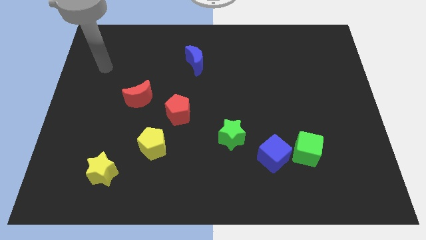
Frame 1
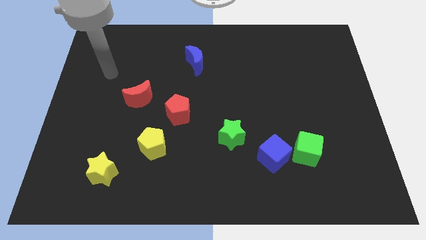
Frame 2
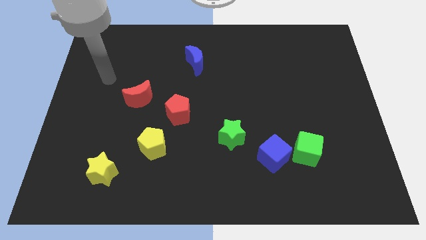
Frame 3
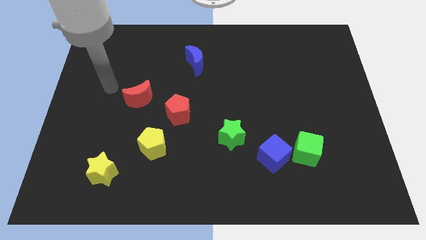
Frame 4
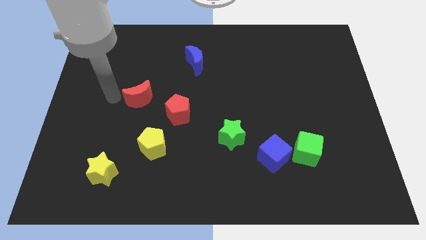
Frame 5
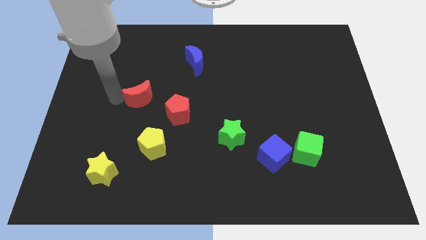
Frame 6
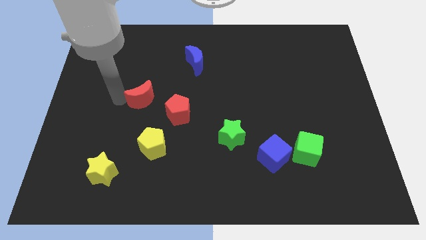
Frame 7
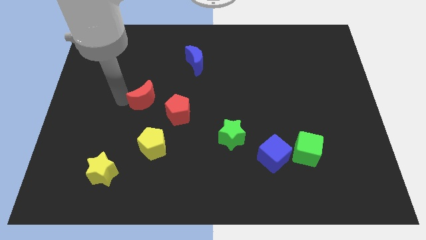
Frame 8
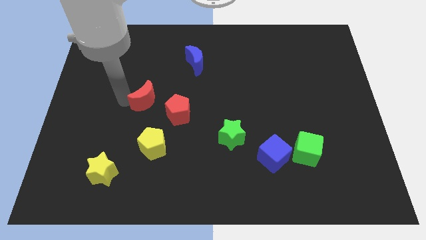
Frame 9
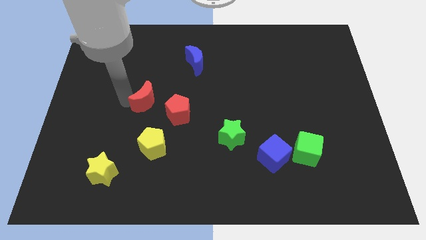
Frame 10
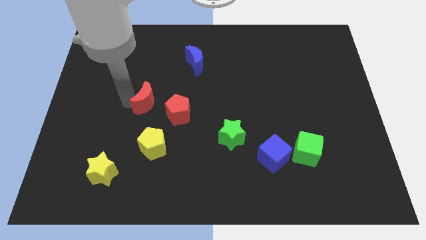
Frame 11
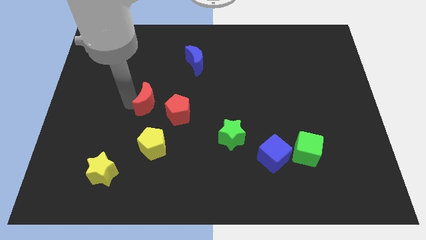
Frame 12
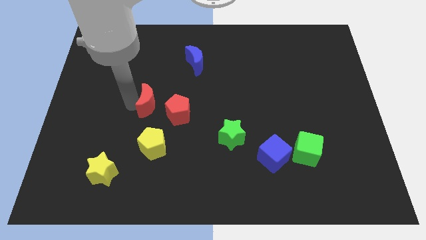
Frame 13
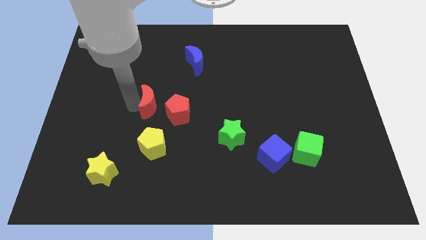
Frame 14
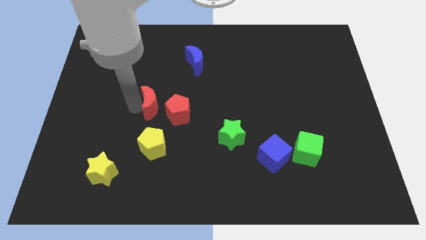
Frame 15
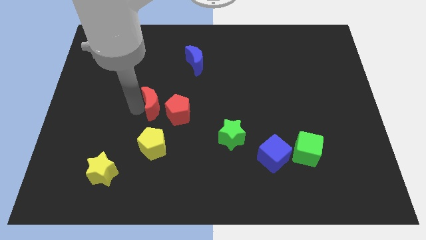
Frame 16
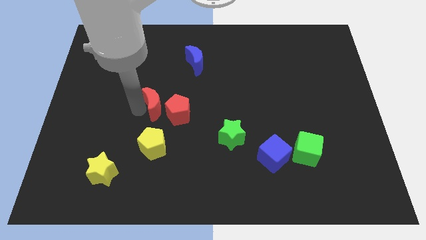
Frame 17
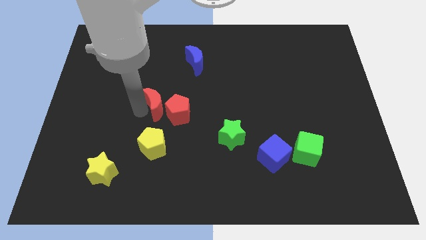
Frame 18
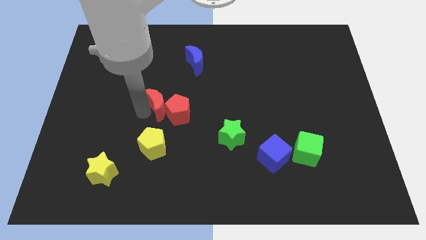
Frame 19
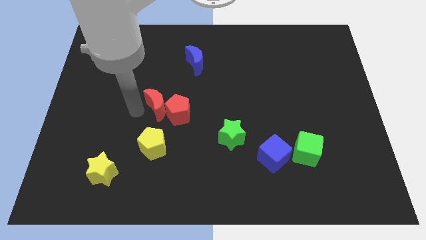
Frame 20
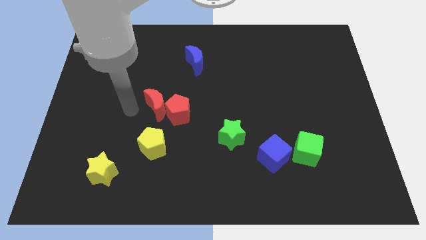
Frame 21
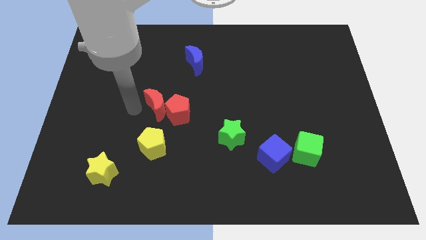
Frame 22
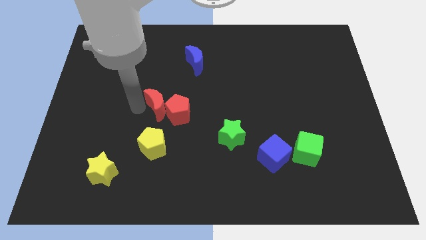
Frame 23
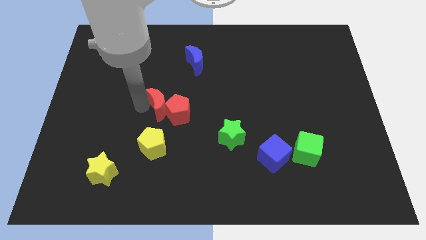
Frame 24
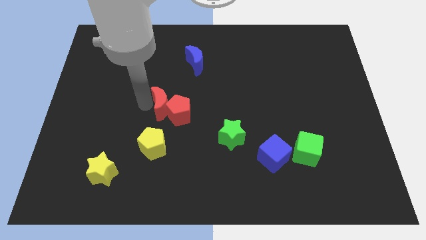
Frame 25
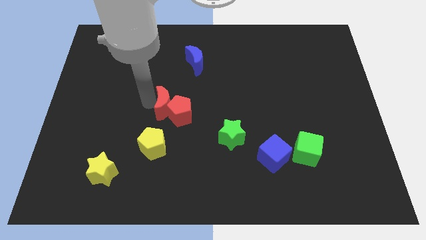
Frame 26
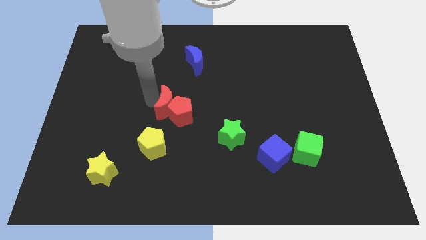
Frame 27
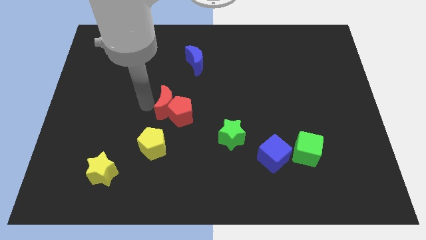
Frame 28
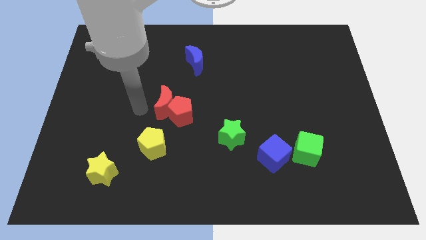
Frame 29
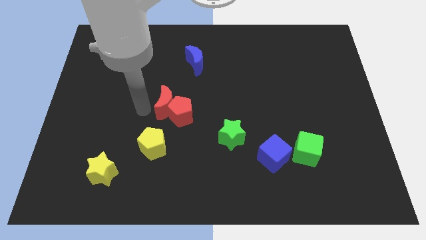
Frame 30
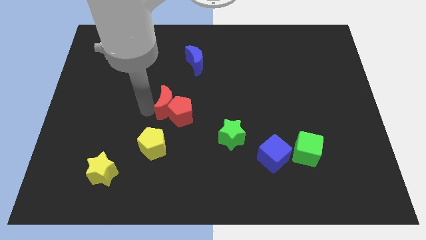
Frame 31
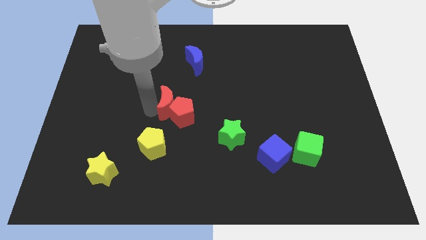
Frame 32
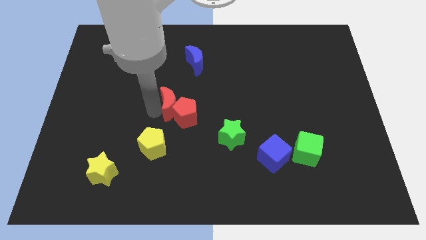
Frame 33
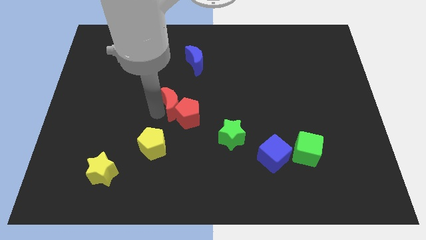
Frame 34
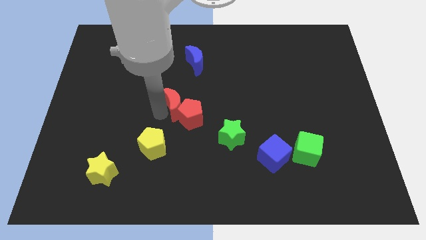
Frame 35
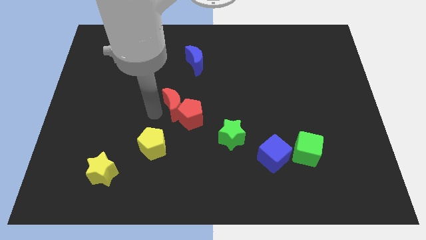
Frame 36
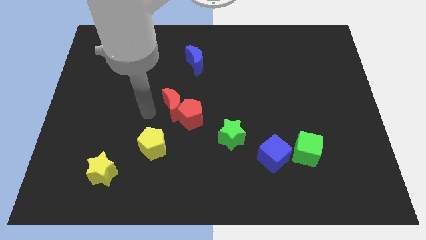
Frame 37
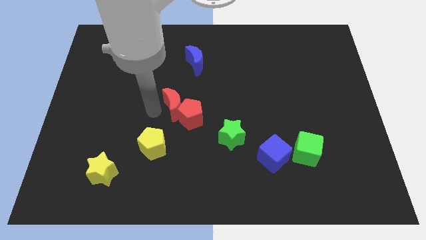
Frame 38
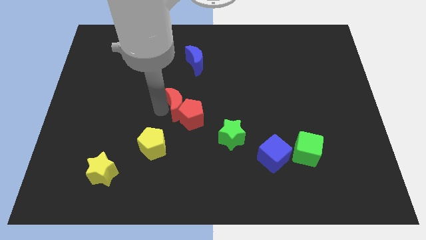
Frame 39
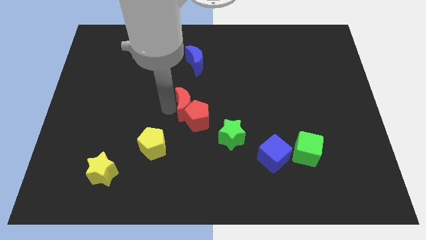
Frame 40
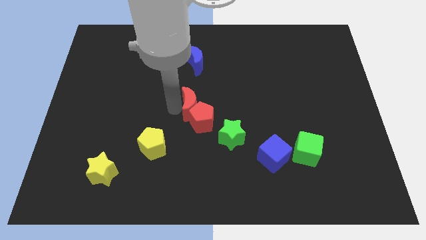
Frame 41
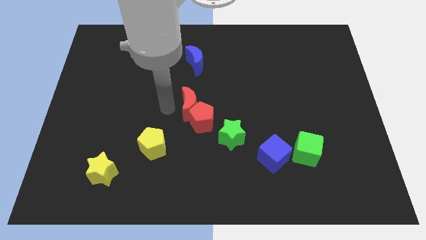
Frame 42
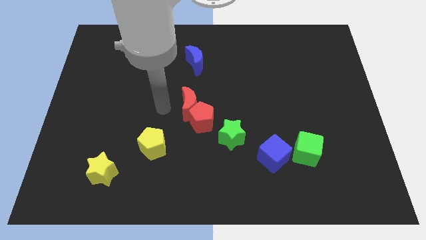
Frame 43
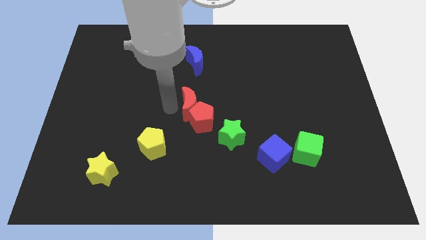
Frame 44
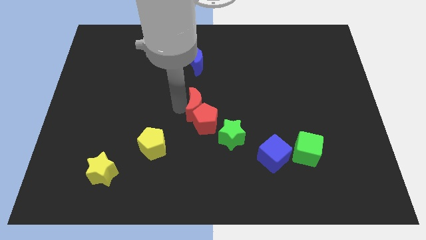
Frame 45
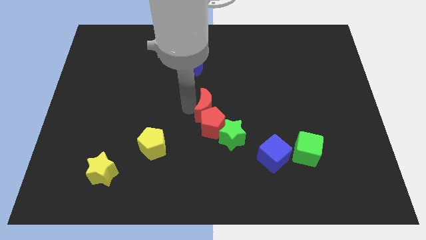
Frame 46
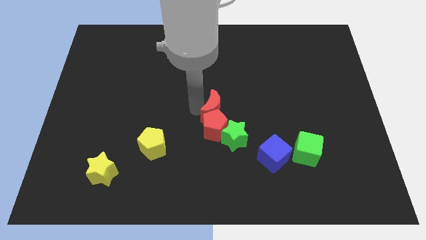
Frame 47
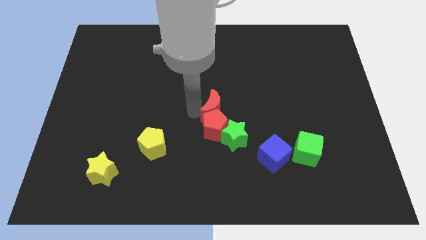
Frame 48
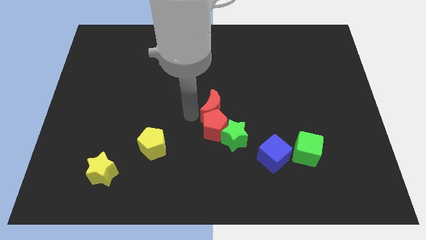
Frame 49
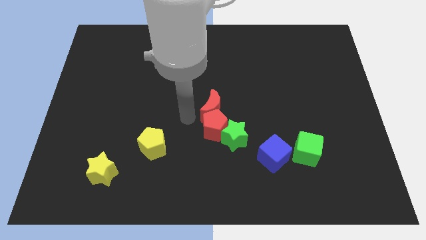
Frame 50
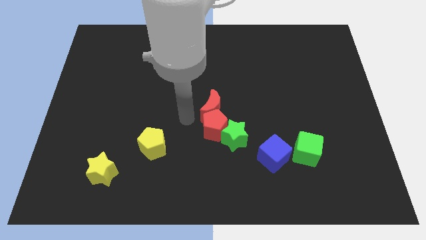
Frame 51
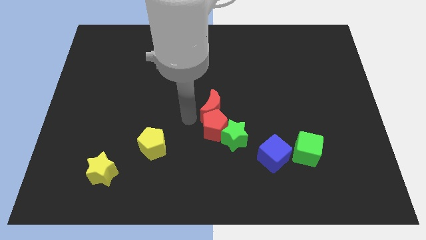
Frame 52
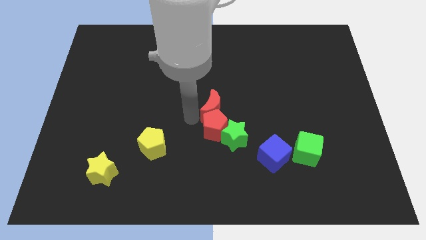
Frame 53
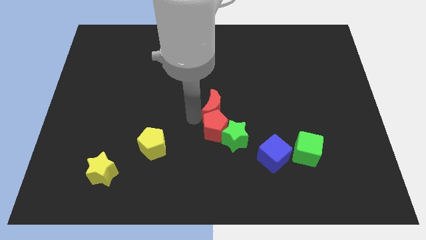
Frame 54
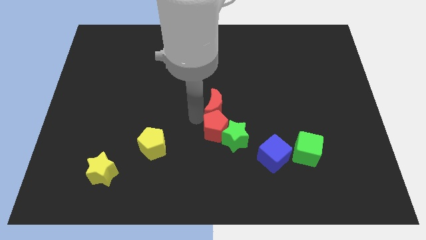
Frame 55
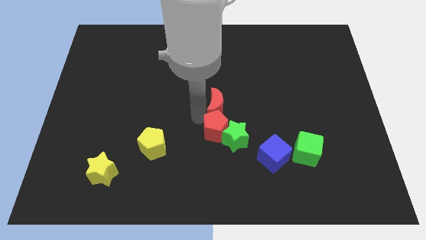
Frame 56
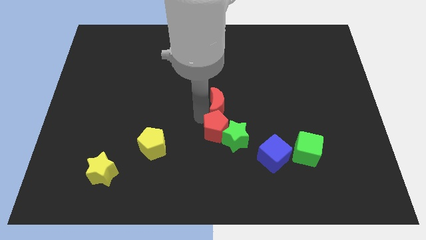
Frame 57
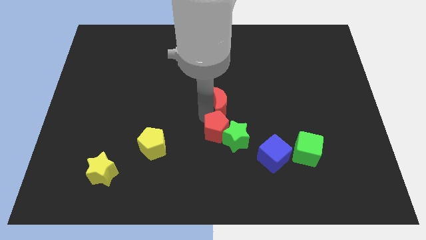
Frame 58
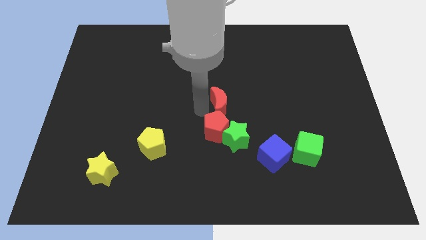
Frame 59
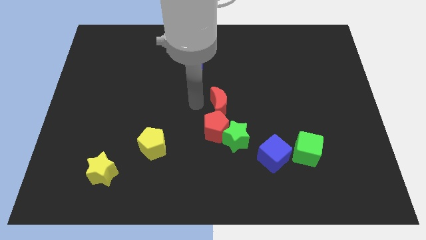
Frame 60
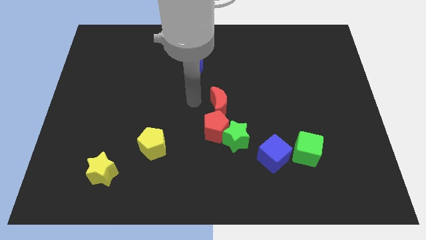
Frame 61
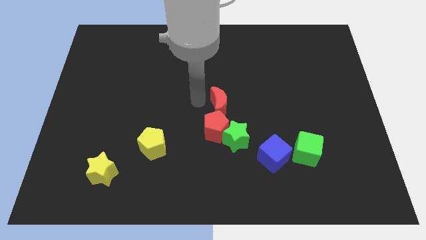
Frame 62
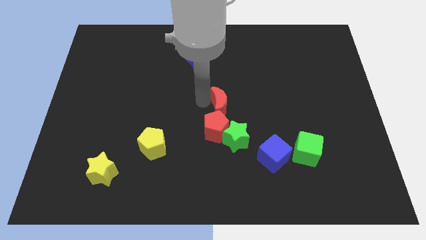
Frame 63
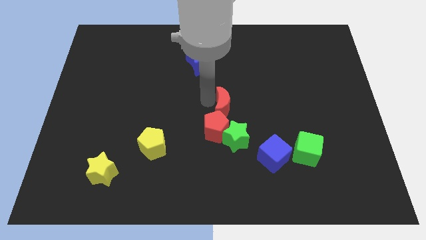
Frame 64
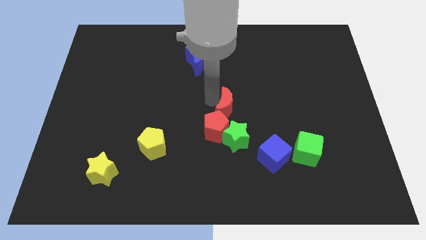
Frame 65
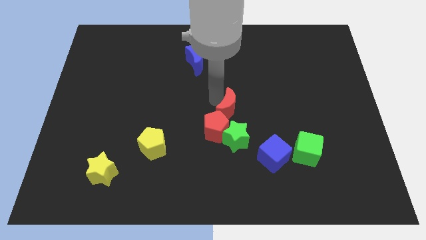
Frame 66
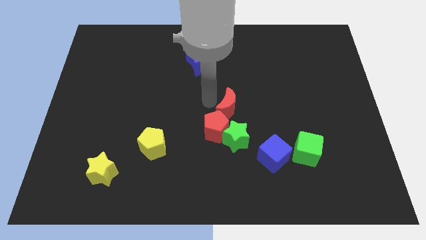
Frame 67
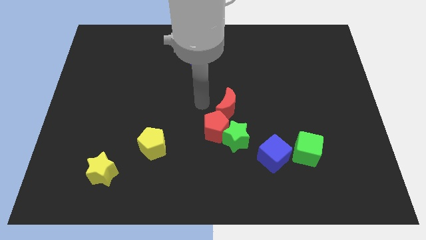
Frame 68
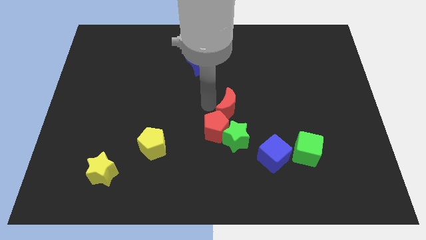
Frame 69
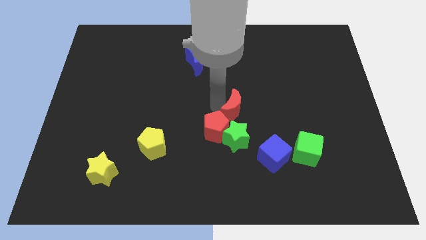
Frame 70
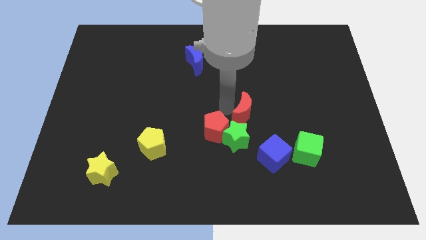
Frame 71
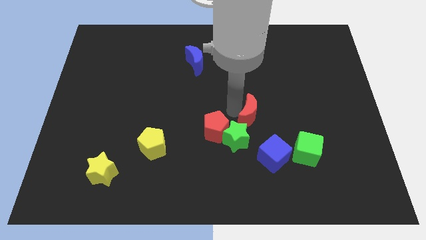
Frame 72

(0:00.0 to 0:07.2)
move the red moon to the top side of the blue cube

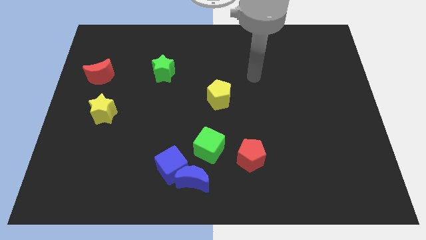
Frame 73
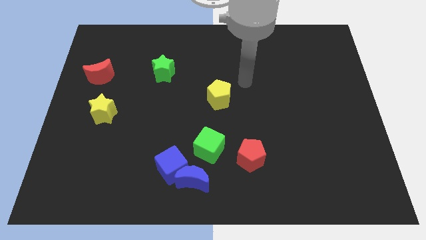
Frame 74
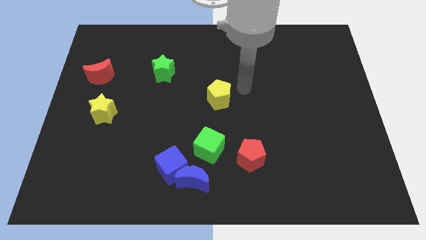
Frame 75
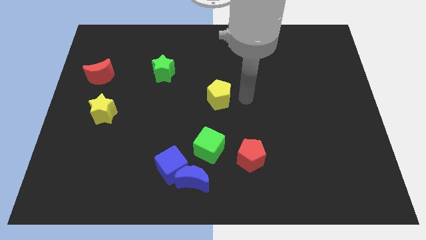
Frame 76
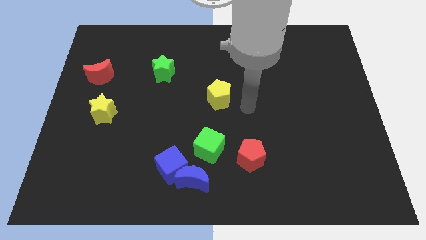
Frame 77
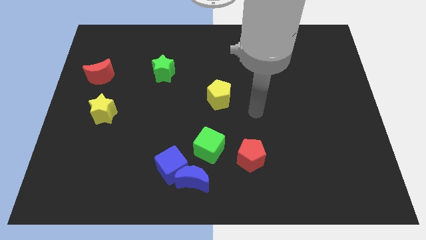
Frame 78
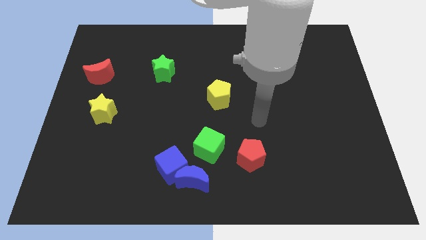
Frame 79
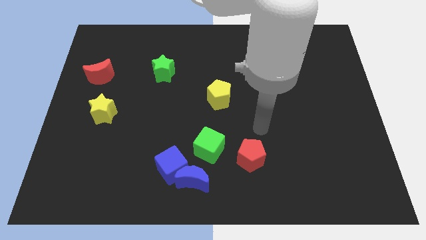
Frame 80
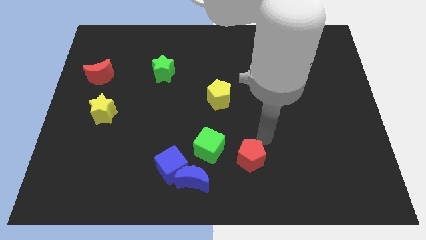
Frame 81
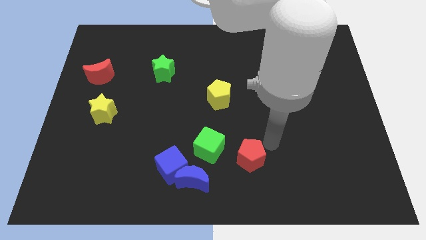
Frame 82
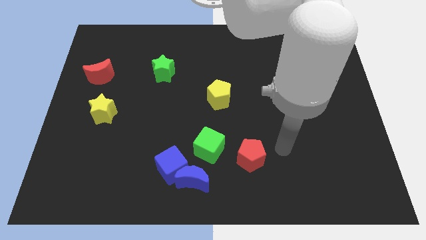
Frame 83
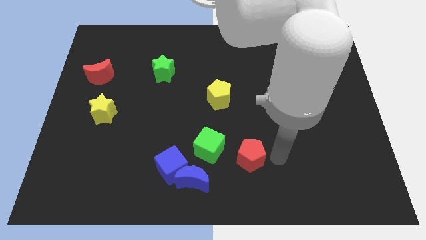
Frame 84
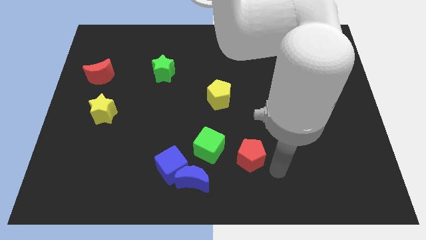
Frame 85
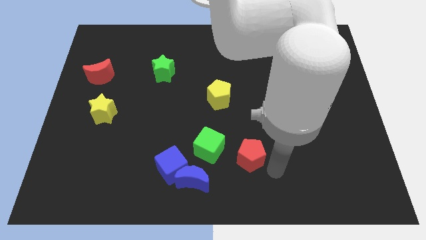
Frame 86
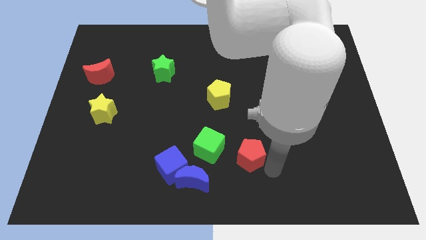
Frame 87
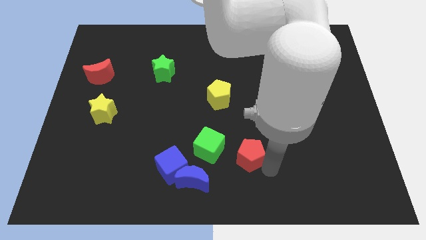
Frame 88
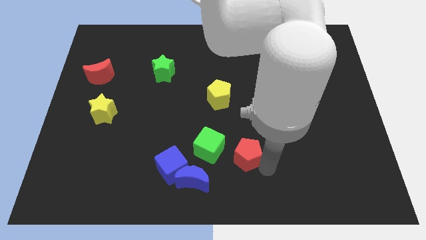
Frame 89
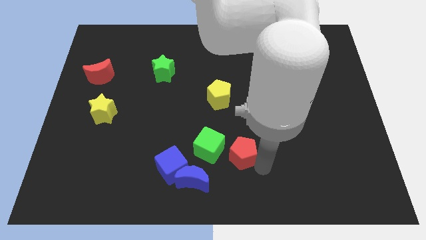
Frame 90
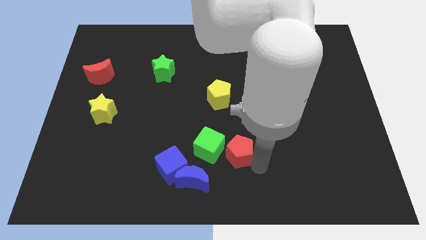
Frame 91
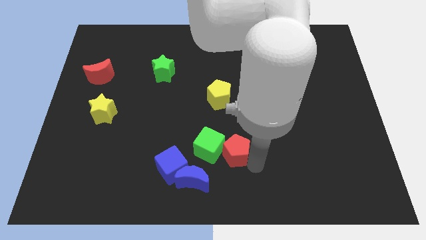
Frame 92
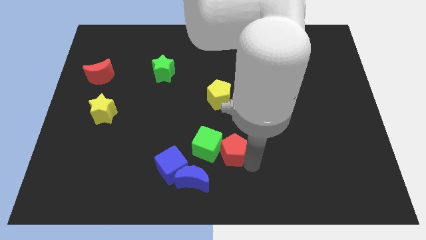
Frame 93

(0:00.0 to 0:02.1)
push the red pentagon below the yellow pentagon
